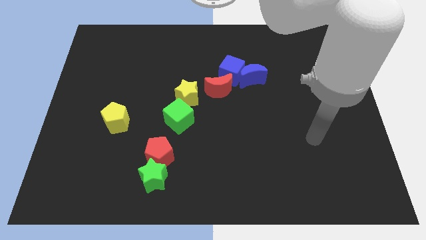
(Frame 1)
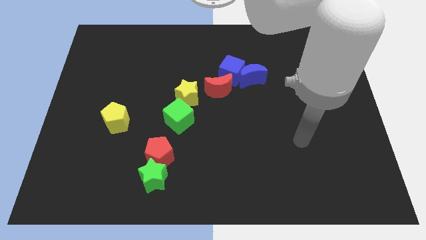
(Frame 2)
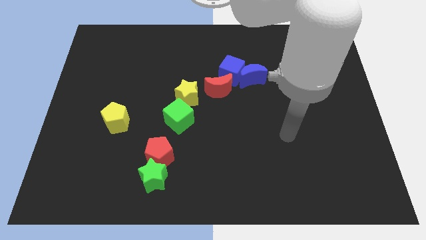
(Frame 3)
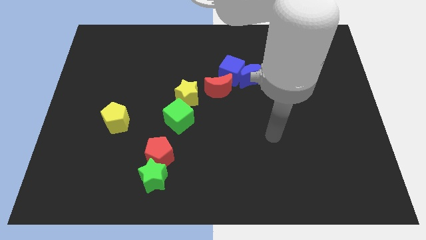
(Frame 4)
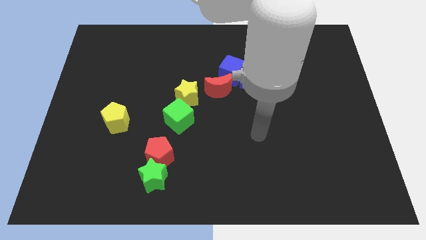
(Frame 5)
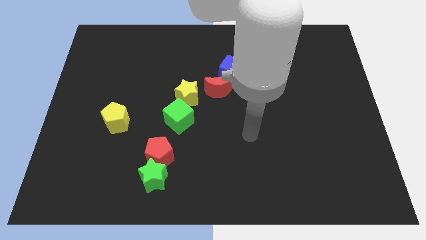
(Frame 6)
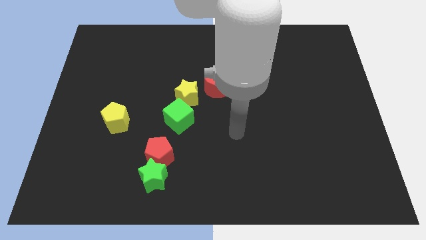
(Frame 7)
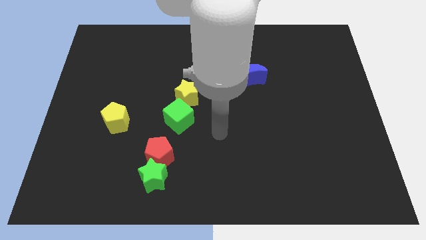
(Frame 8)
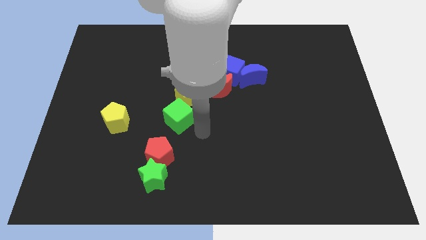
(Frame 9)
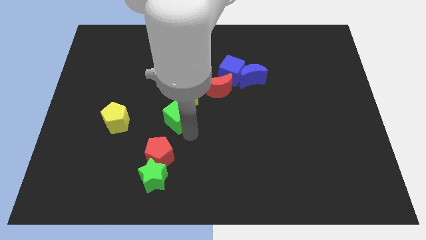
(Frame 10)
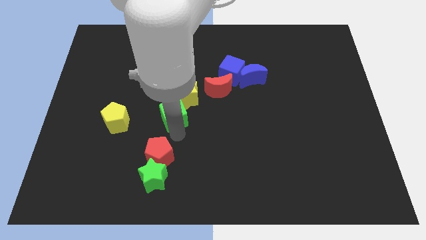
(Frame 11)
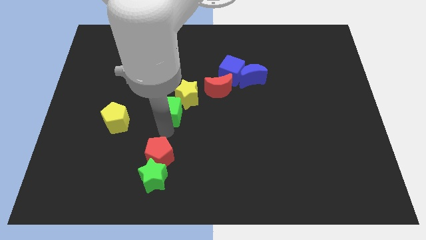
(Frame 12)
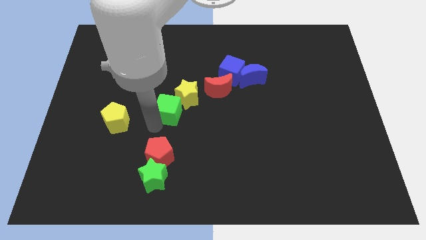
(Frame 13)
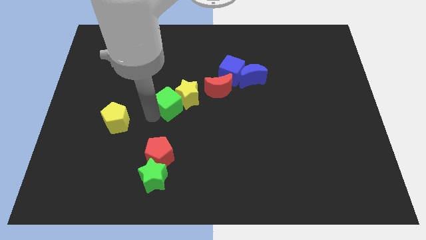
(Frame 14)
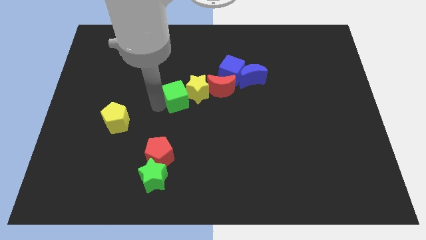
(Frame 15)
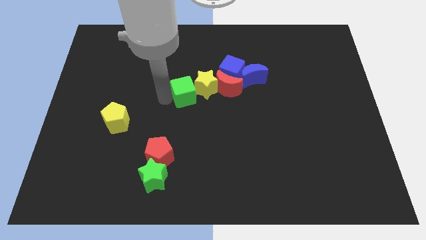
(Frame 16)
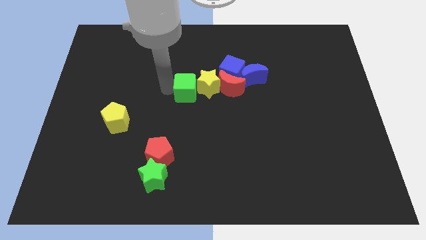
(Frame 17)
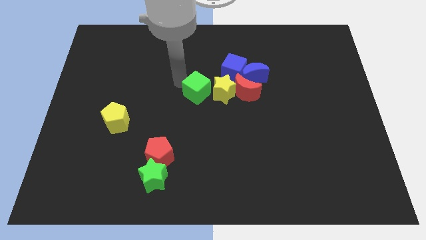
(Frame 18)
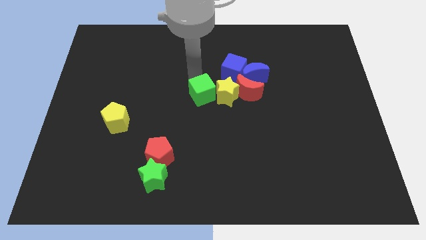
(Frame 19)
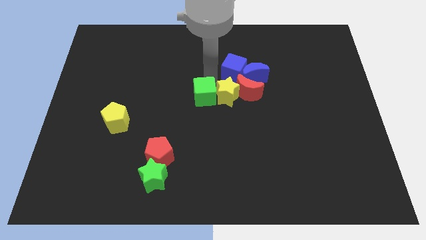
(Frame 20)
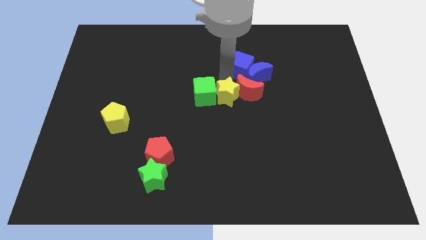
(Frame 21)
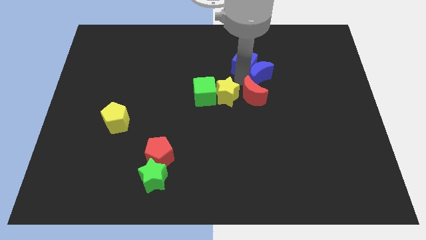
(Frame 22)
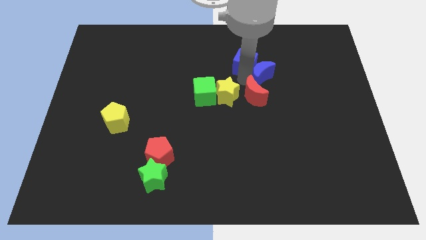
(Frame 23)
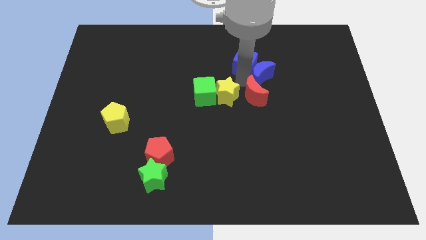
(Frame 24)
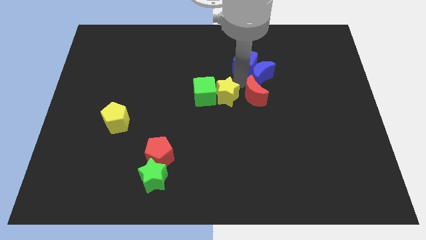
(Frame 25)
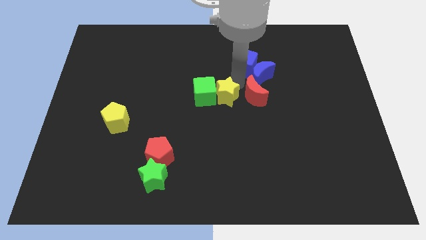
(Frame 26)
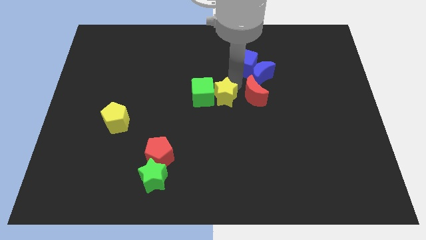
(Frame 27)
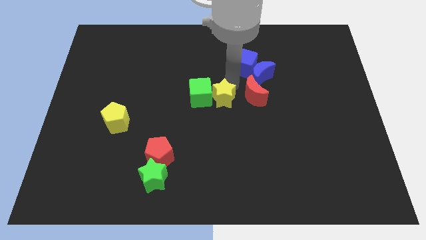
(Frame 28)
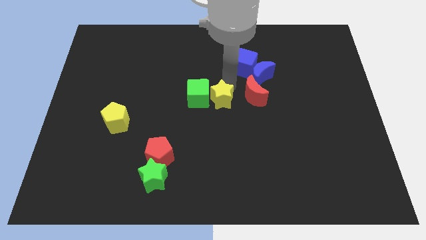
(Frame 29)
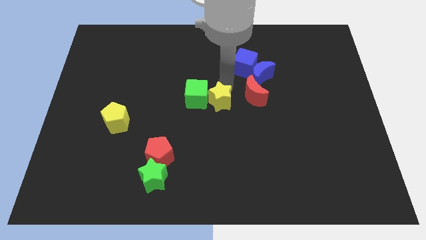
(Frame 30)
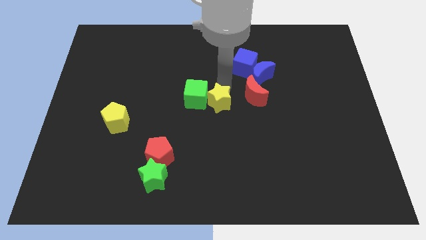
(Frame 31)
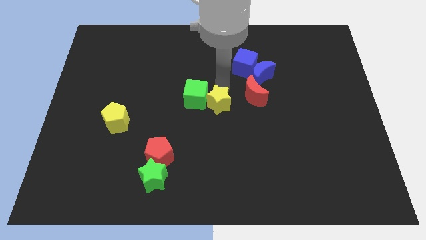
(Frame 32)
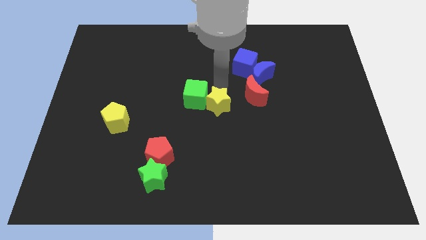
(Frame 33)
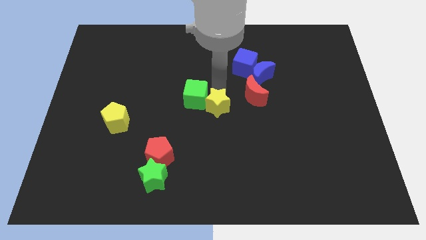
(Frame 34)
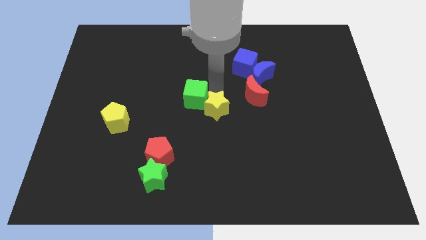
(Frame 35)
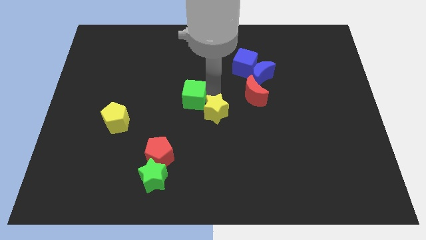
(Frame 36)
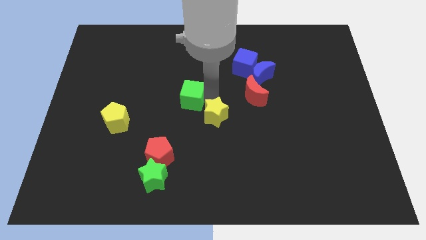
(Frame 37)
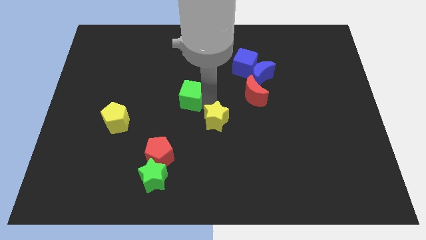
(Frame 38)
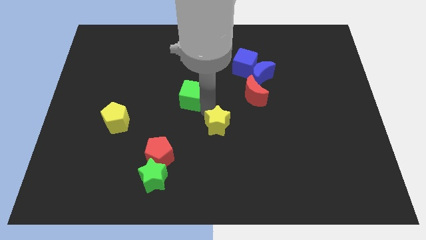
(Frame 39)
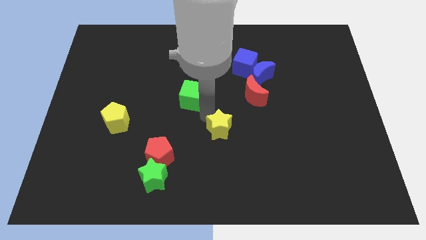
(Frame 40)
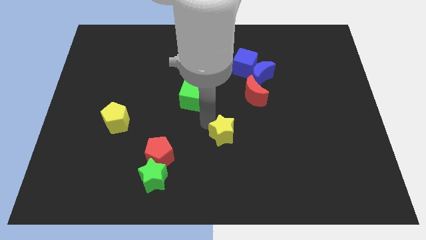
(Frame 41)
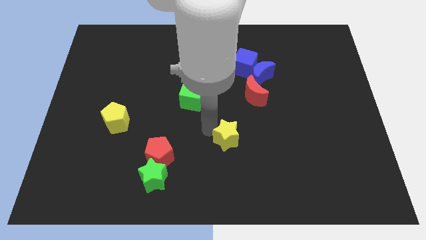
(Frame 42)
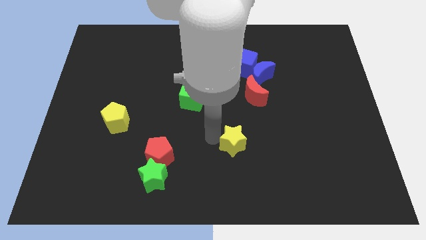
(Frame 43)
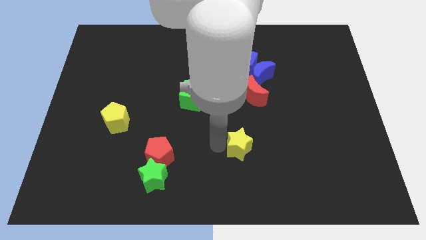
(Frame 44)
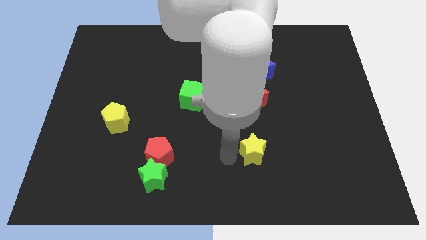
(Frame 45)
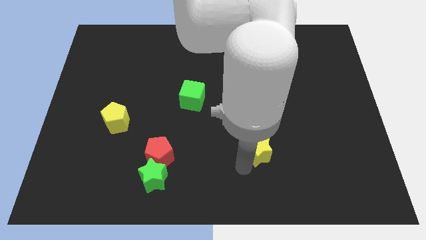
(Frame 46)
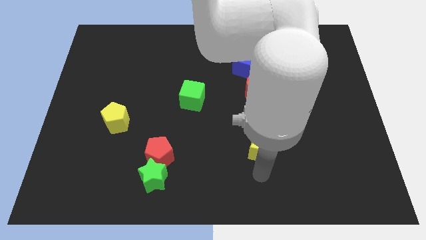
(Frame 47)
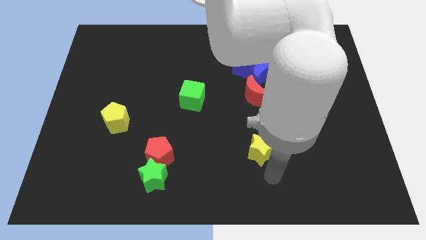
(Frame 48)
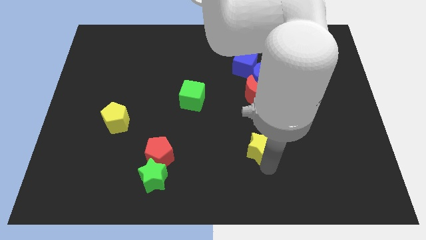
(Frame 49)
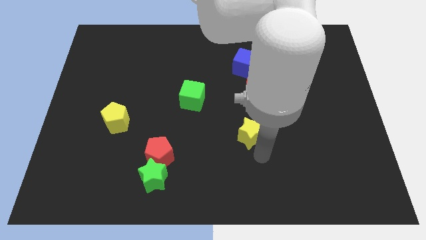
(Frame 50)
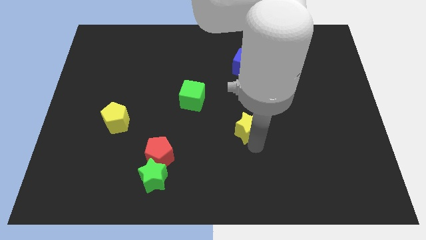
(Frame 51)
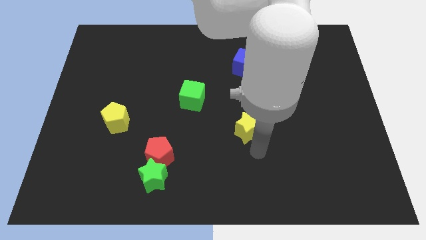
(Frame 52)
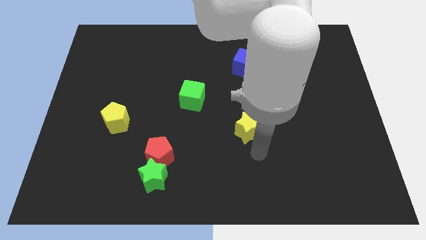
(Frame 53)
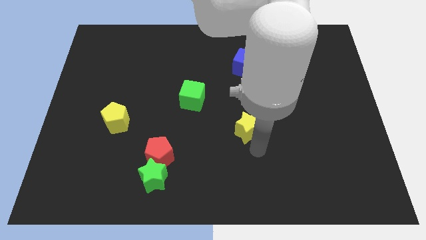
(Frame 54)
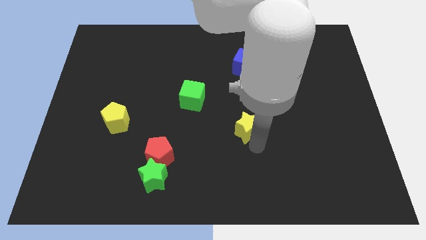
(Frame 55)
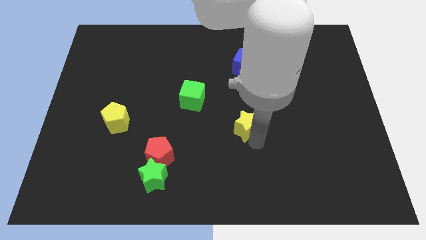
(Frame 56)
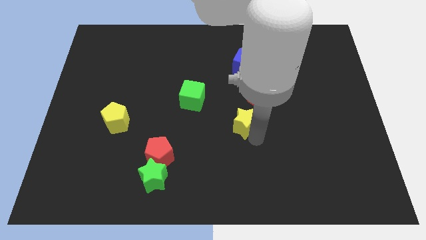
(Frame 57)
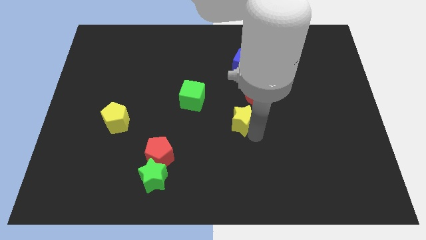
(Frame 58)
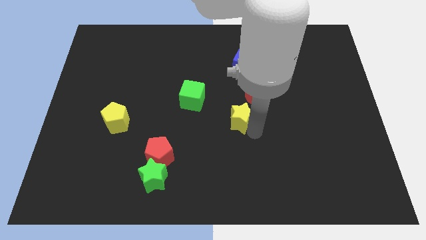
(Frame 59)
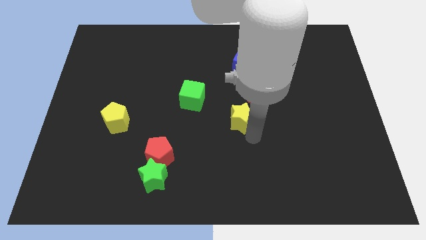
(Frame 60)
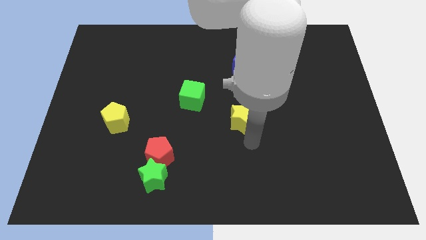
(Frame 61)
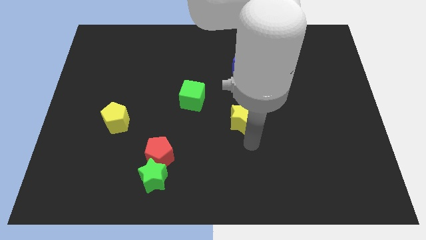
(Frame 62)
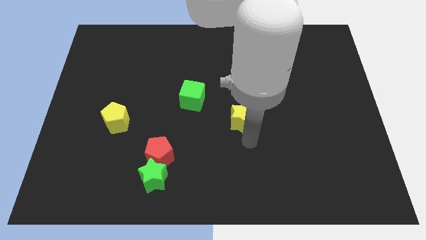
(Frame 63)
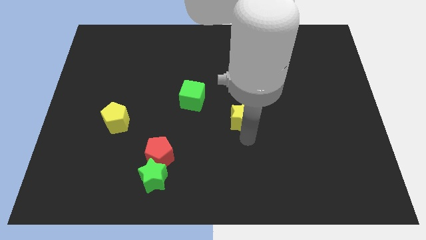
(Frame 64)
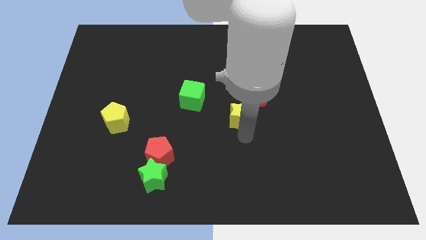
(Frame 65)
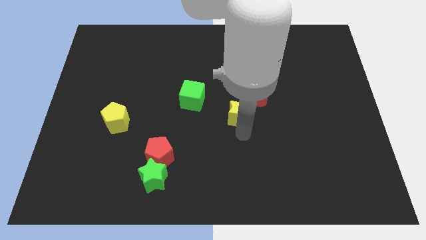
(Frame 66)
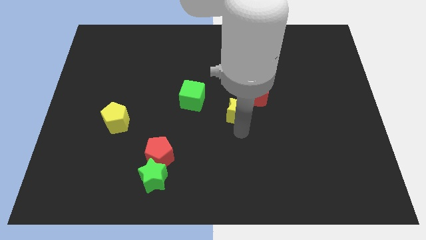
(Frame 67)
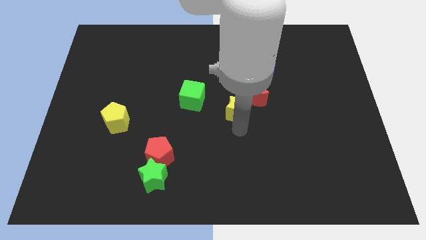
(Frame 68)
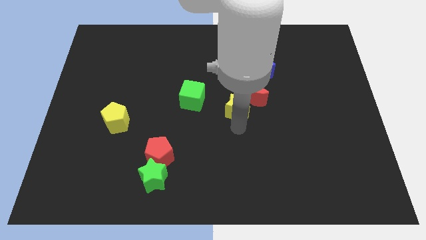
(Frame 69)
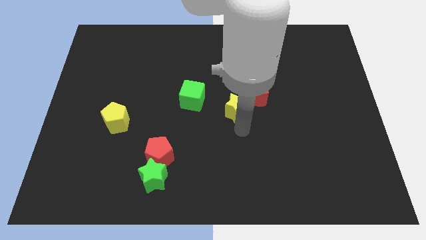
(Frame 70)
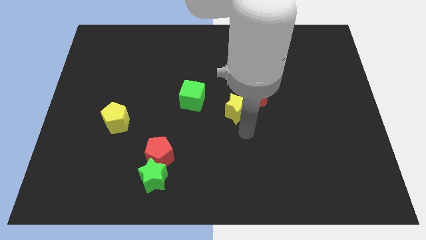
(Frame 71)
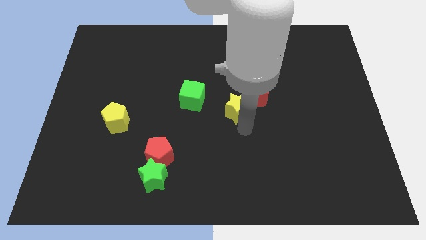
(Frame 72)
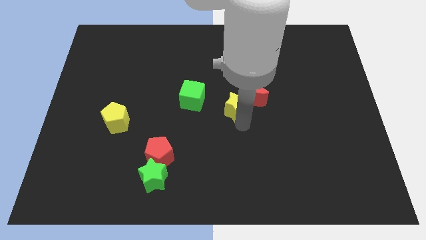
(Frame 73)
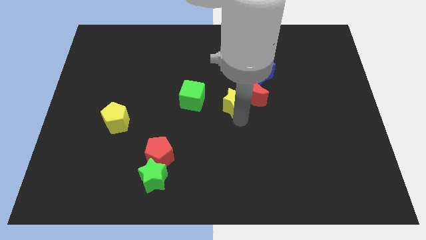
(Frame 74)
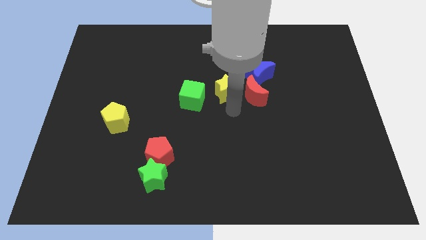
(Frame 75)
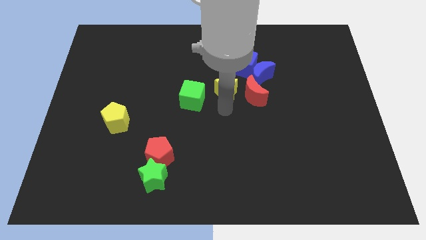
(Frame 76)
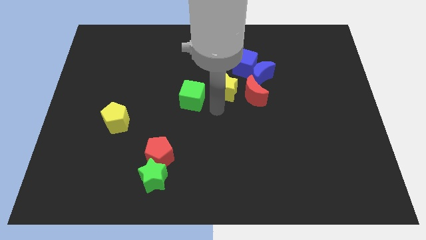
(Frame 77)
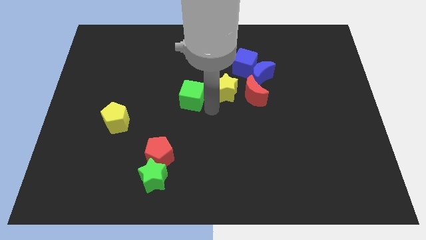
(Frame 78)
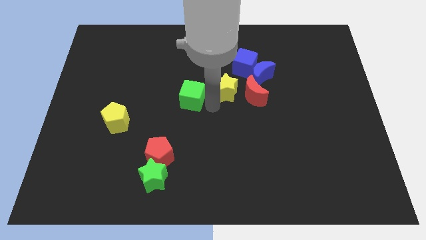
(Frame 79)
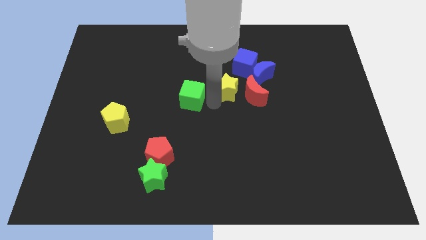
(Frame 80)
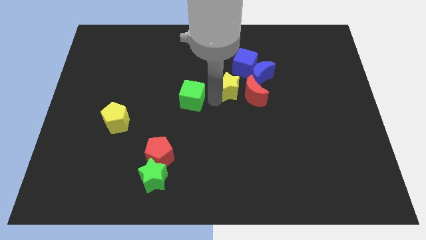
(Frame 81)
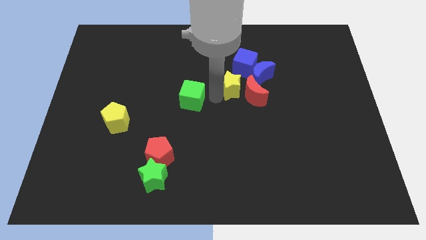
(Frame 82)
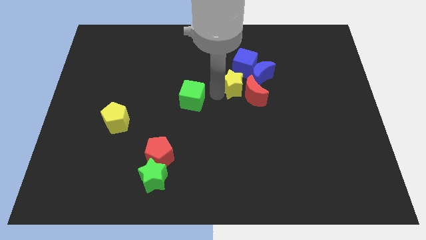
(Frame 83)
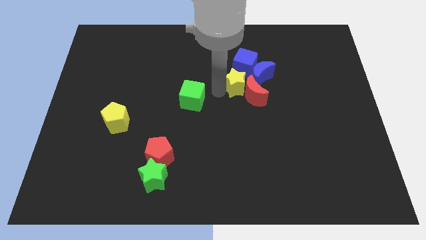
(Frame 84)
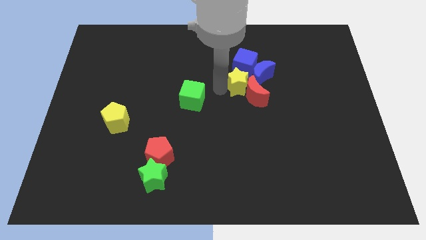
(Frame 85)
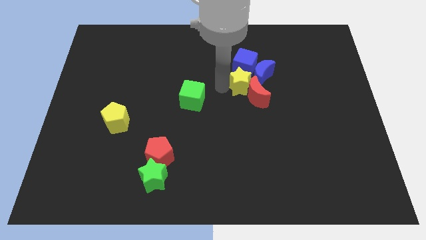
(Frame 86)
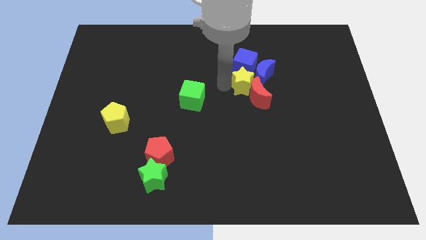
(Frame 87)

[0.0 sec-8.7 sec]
push the yellow star to the blue cube
